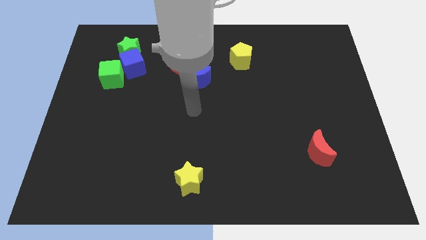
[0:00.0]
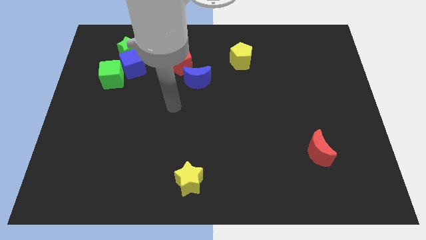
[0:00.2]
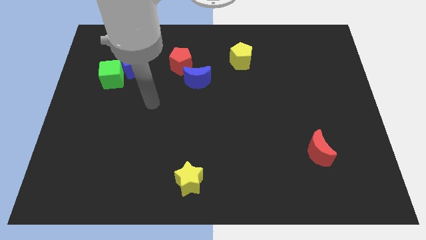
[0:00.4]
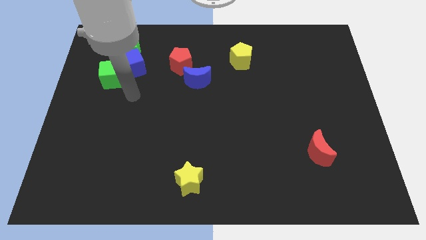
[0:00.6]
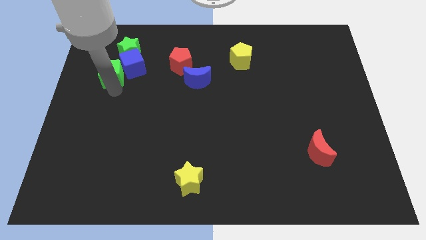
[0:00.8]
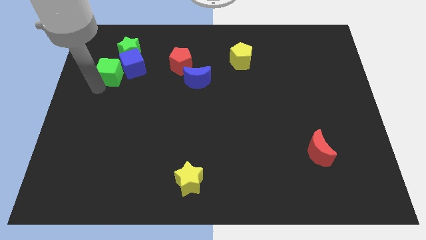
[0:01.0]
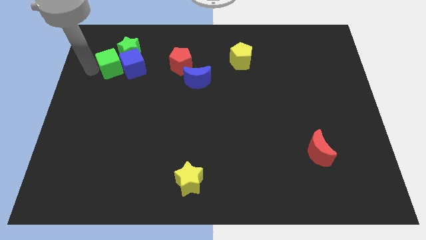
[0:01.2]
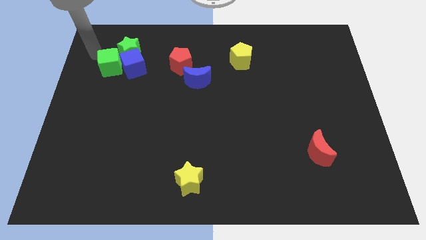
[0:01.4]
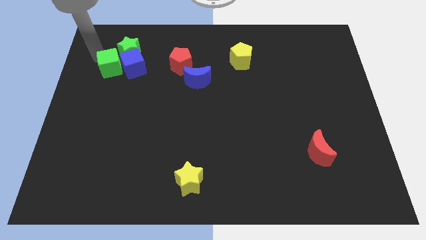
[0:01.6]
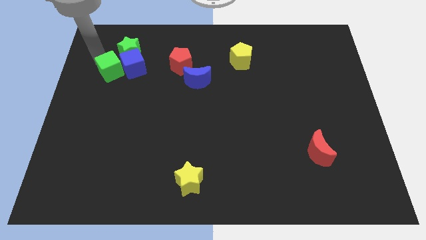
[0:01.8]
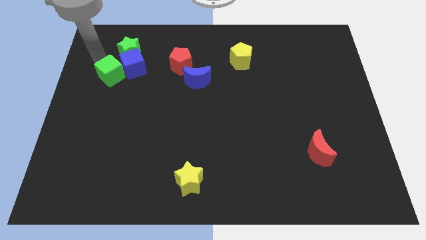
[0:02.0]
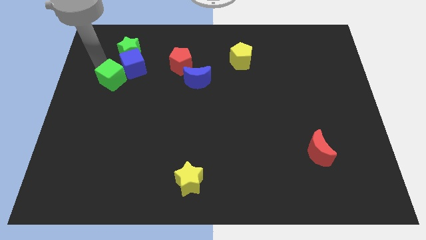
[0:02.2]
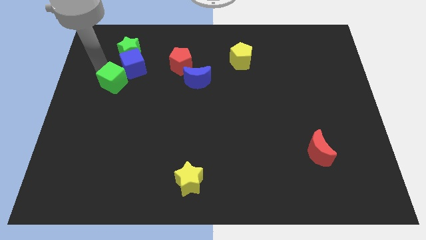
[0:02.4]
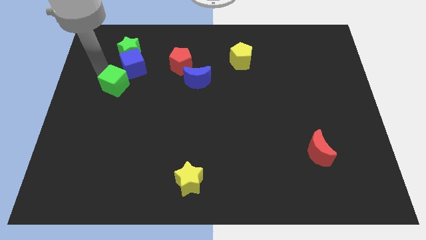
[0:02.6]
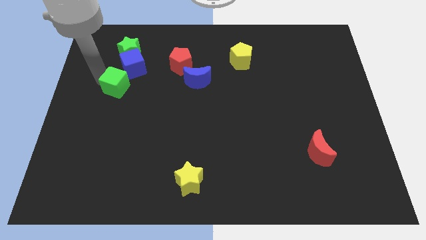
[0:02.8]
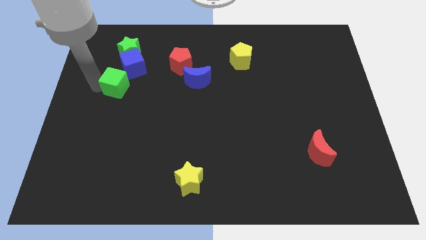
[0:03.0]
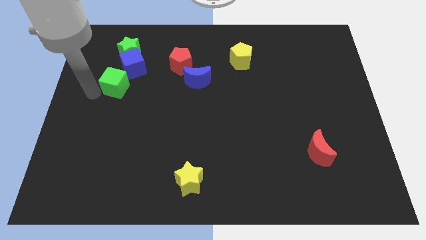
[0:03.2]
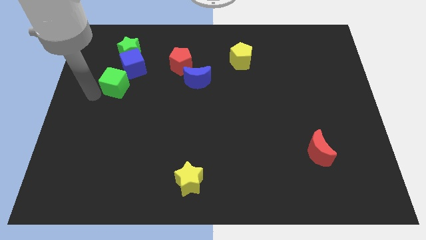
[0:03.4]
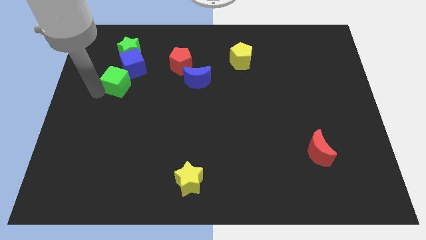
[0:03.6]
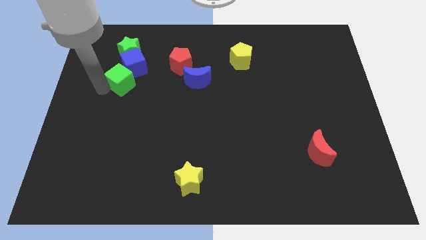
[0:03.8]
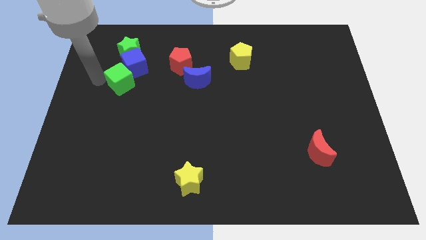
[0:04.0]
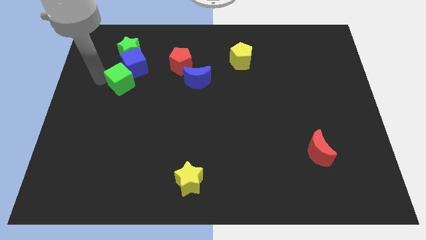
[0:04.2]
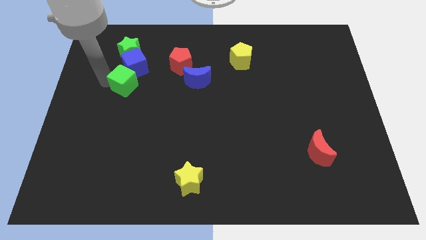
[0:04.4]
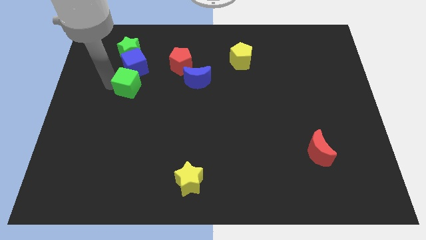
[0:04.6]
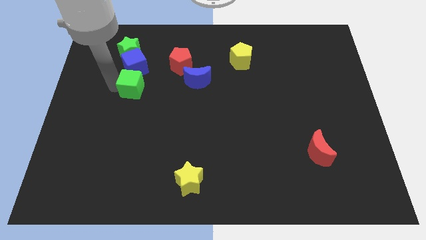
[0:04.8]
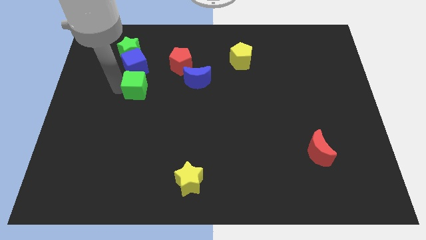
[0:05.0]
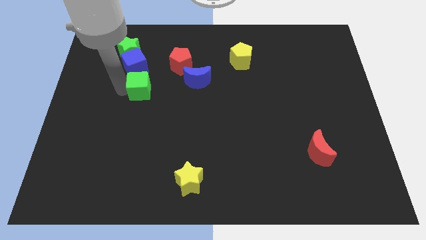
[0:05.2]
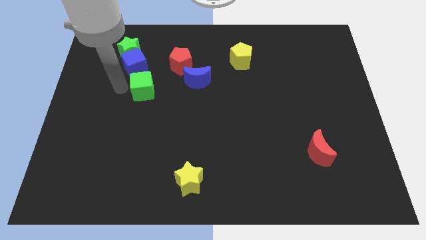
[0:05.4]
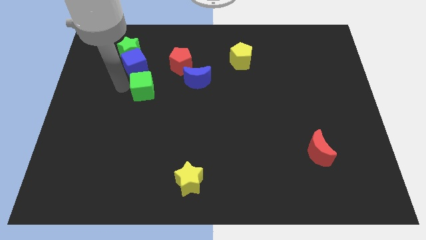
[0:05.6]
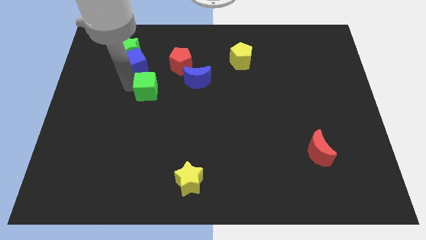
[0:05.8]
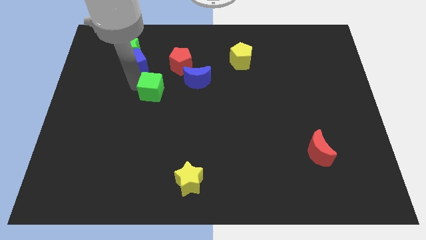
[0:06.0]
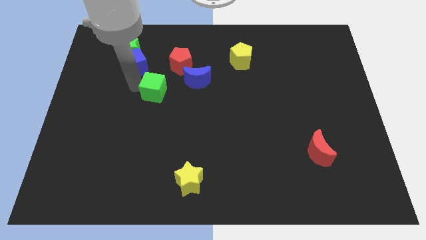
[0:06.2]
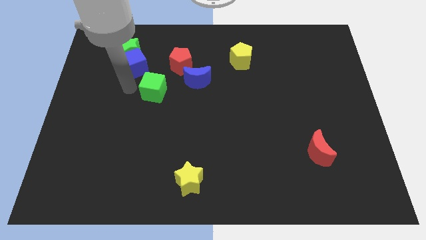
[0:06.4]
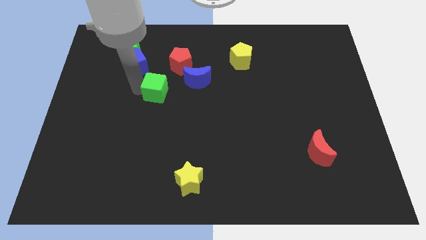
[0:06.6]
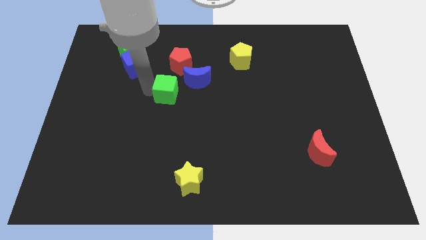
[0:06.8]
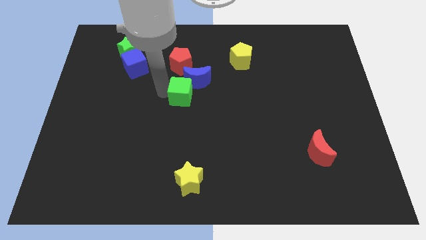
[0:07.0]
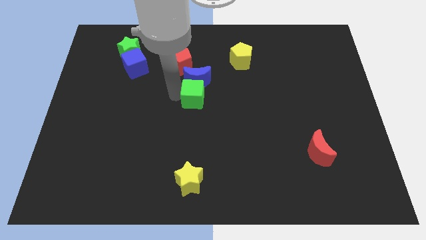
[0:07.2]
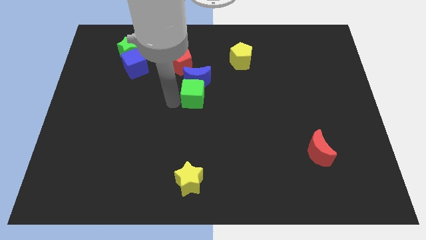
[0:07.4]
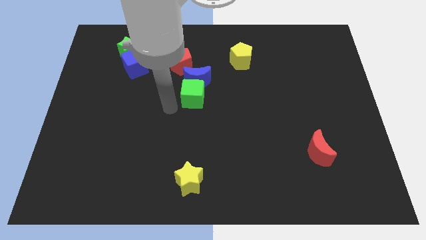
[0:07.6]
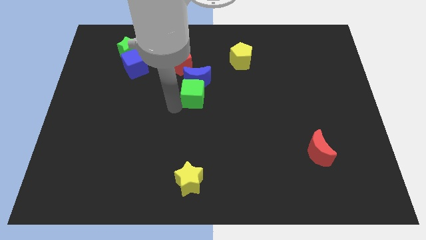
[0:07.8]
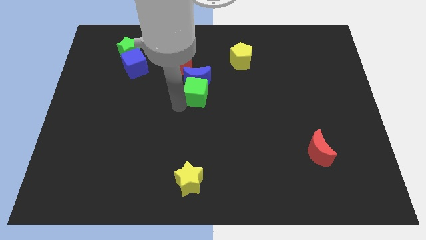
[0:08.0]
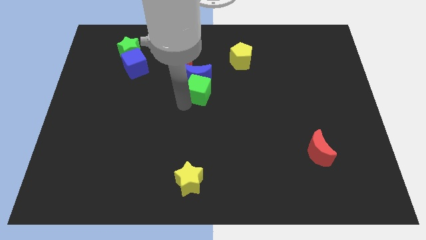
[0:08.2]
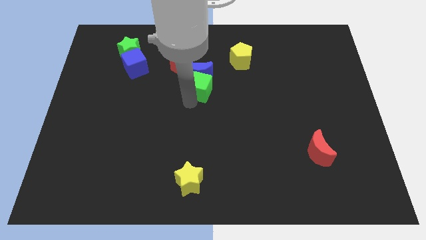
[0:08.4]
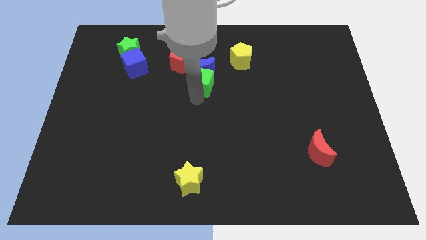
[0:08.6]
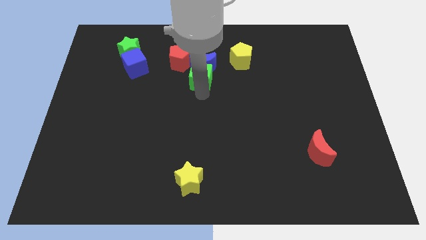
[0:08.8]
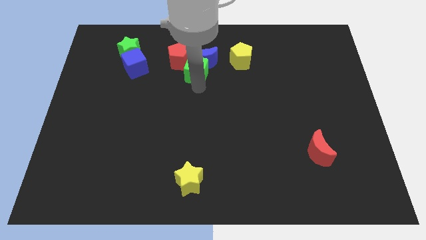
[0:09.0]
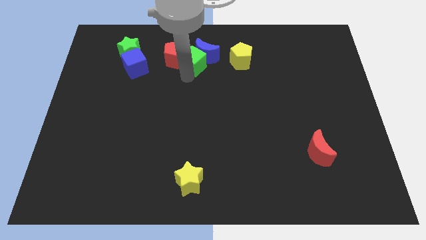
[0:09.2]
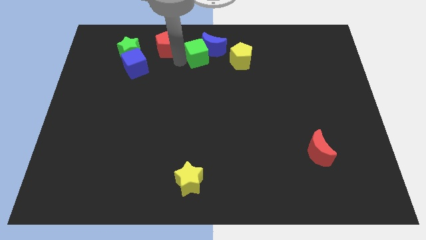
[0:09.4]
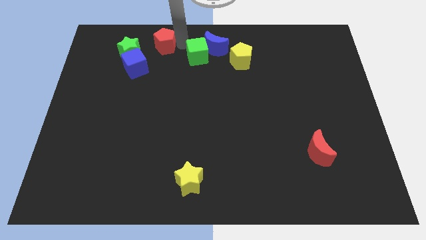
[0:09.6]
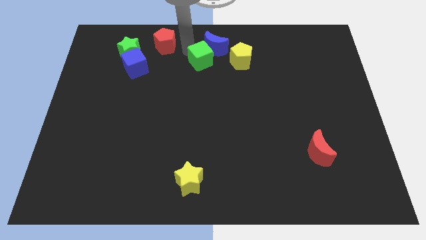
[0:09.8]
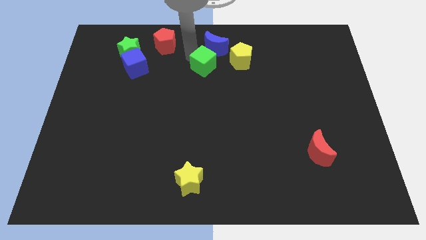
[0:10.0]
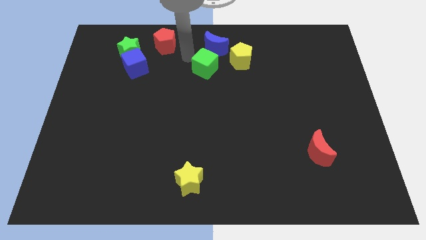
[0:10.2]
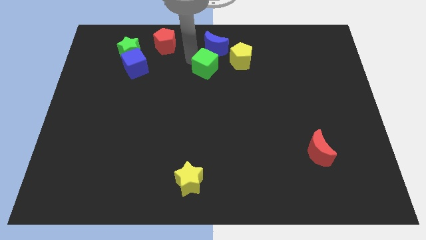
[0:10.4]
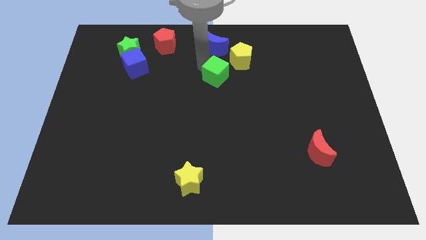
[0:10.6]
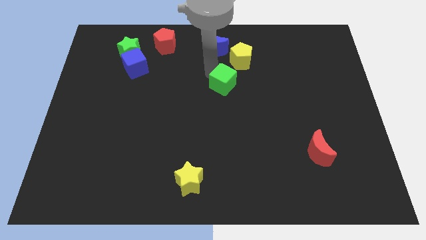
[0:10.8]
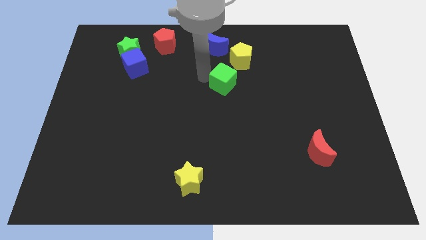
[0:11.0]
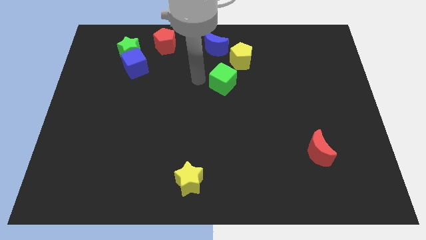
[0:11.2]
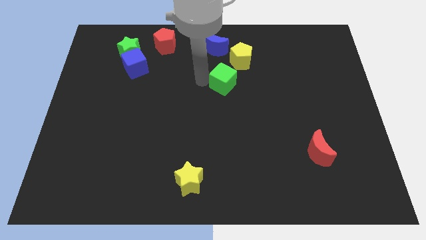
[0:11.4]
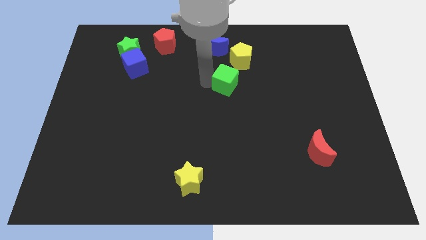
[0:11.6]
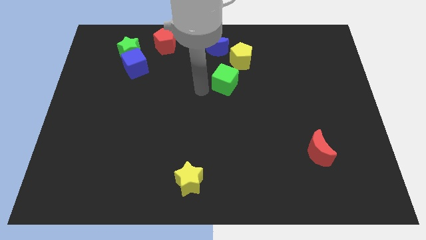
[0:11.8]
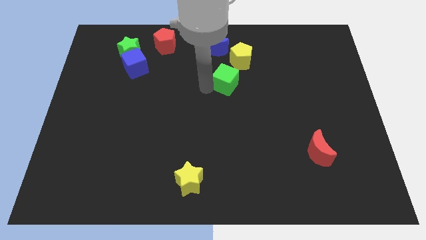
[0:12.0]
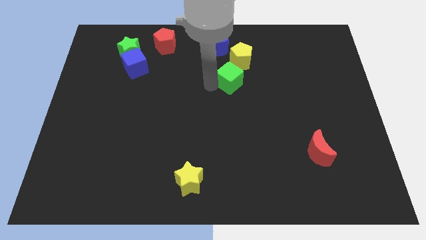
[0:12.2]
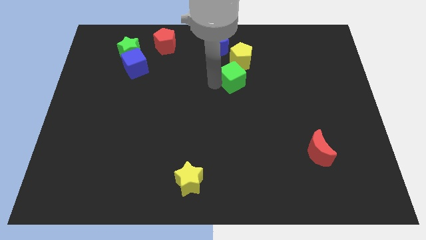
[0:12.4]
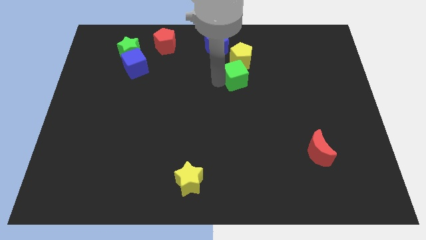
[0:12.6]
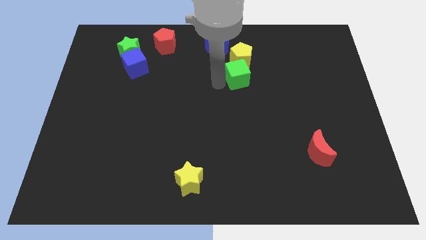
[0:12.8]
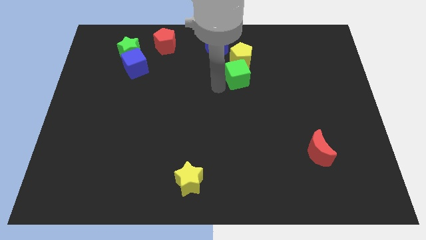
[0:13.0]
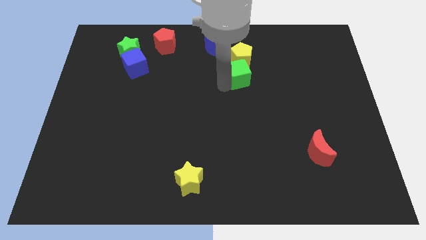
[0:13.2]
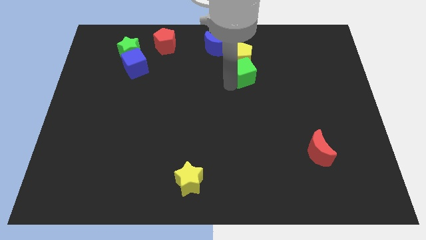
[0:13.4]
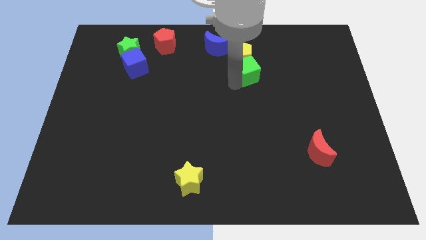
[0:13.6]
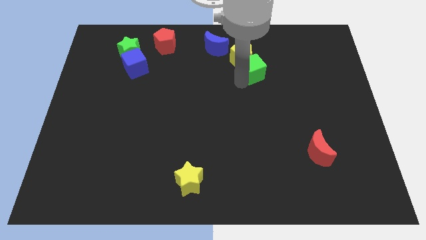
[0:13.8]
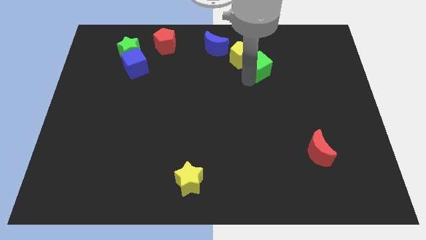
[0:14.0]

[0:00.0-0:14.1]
slide the green cube right of the yellow pentagon

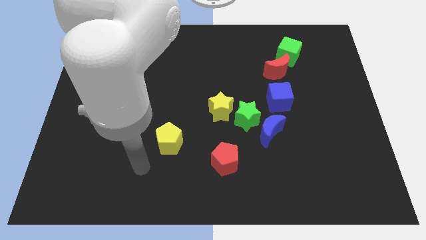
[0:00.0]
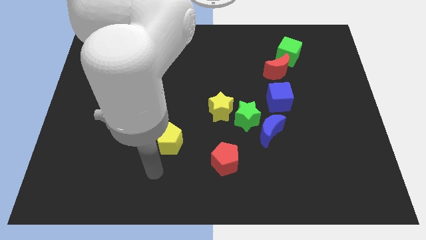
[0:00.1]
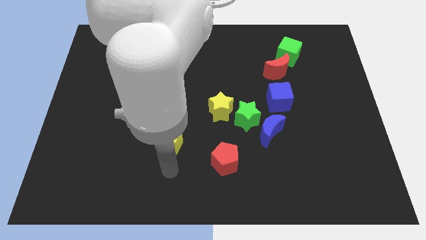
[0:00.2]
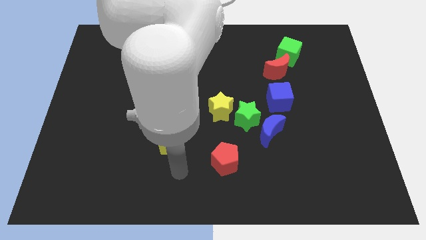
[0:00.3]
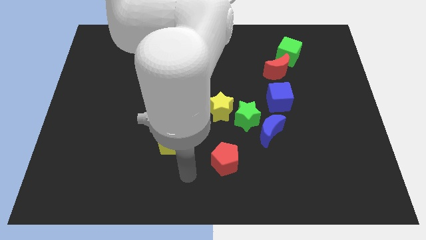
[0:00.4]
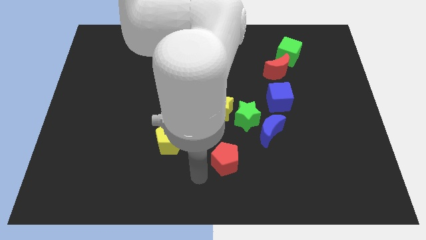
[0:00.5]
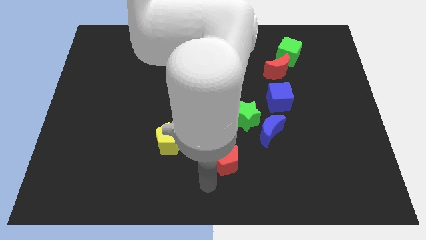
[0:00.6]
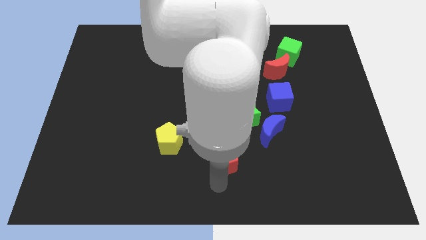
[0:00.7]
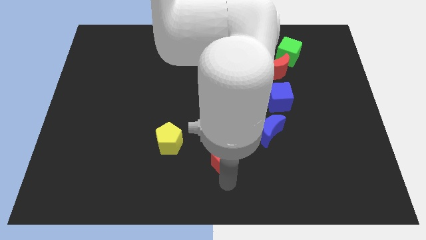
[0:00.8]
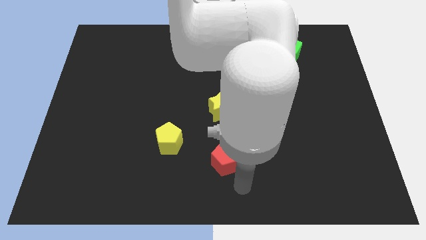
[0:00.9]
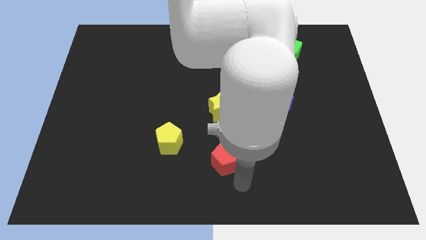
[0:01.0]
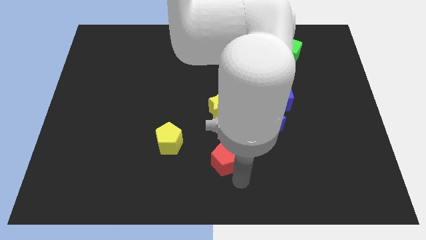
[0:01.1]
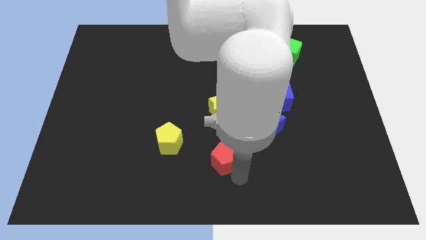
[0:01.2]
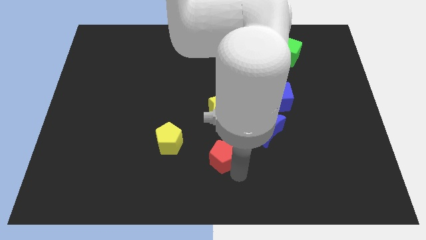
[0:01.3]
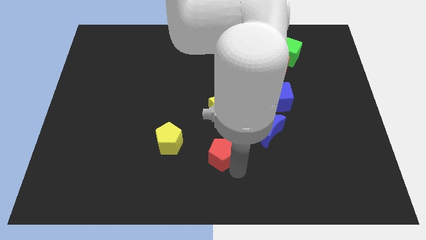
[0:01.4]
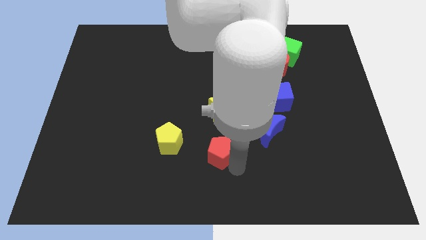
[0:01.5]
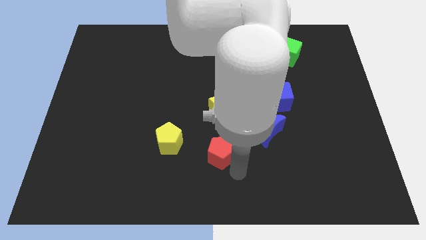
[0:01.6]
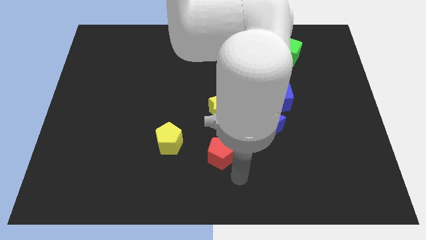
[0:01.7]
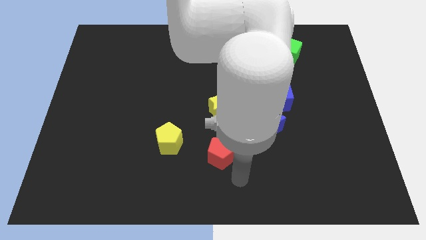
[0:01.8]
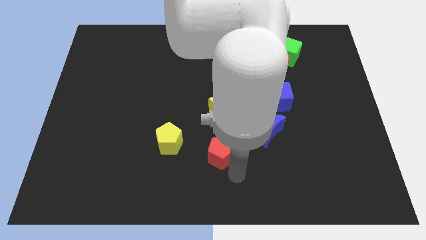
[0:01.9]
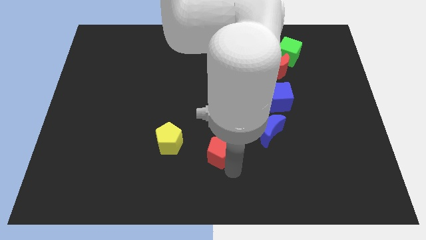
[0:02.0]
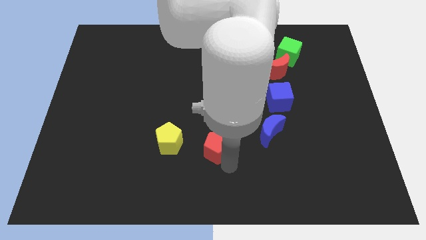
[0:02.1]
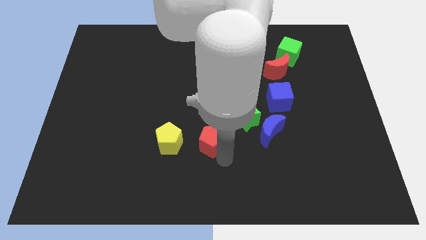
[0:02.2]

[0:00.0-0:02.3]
slide the red pentagon to the bottom left of the yellow star
